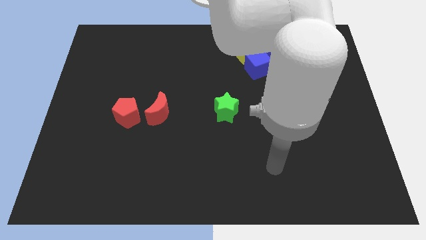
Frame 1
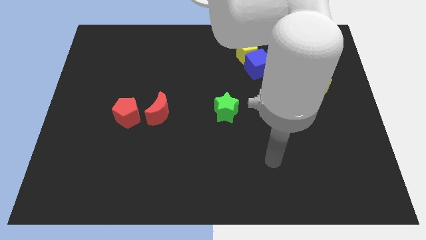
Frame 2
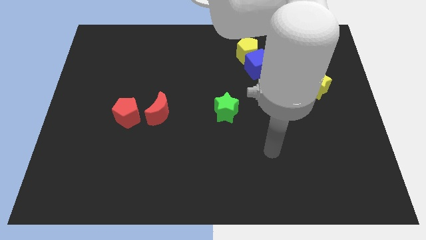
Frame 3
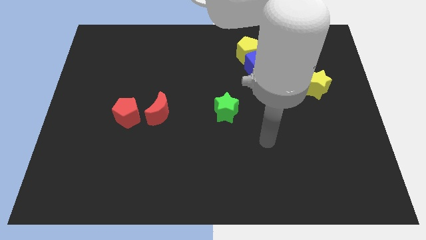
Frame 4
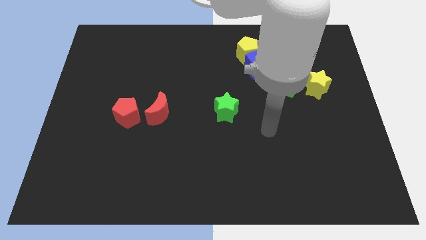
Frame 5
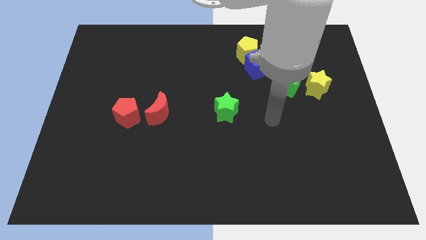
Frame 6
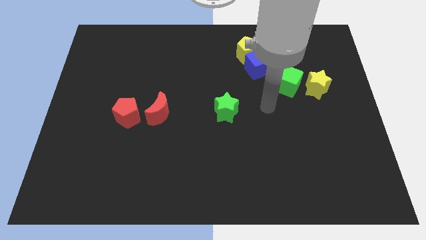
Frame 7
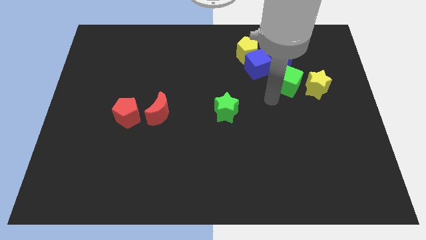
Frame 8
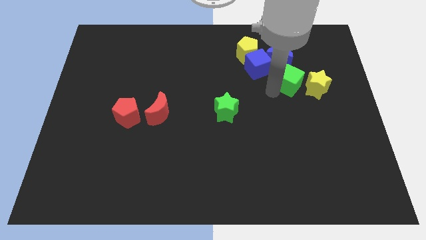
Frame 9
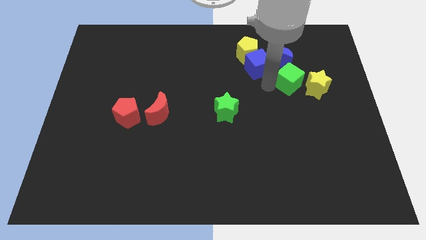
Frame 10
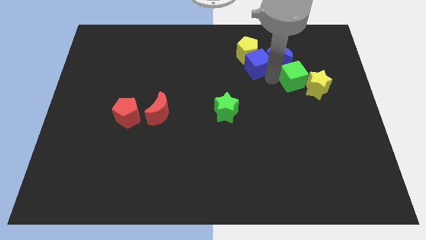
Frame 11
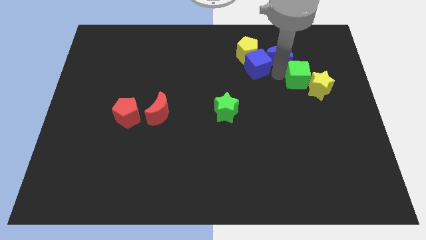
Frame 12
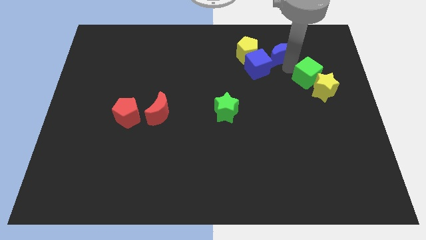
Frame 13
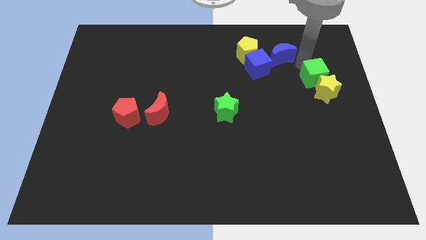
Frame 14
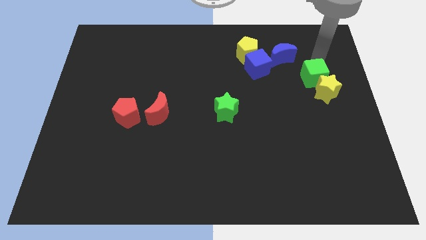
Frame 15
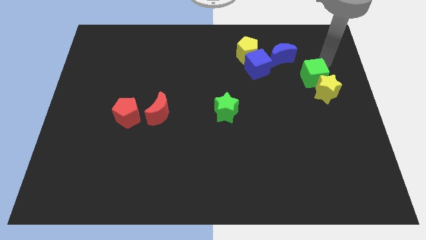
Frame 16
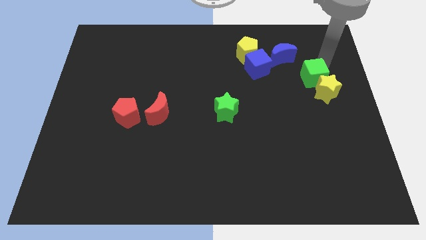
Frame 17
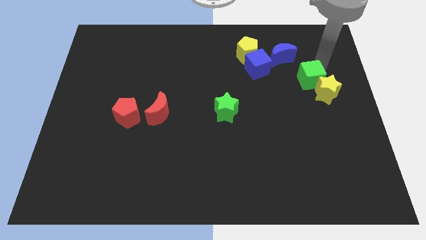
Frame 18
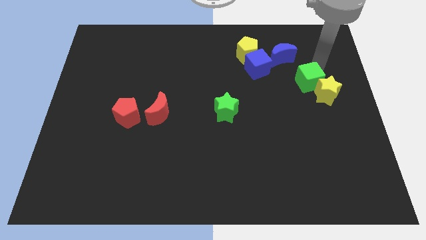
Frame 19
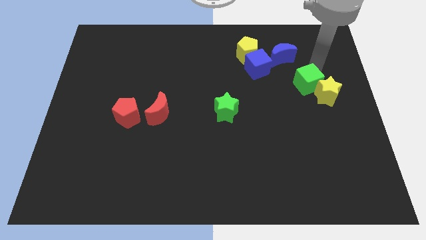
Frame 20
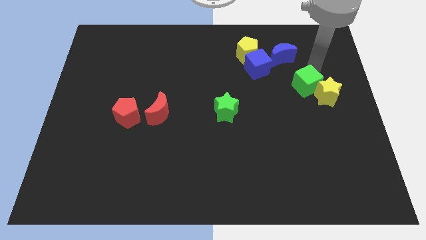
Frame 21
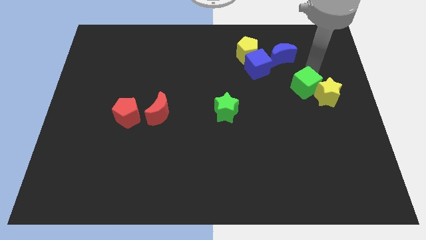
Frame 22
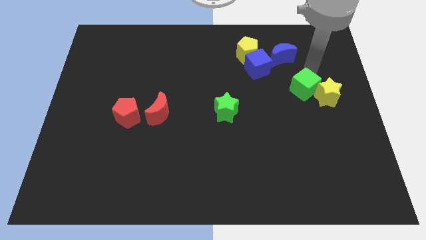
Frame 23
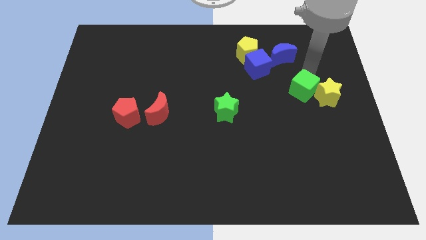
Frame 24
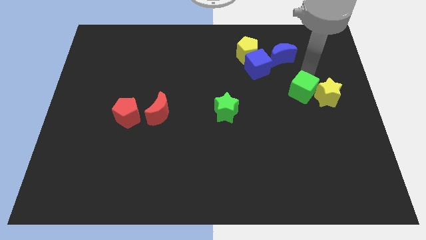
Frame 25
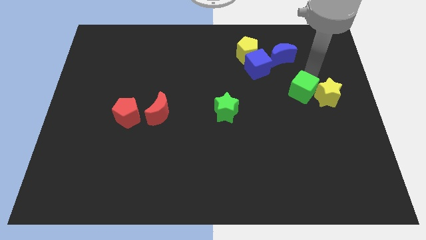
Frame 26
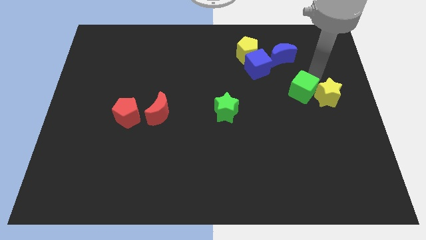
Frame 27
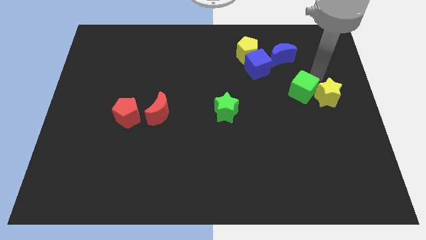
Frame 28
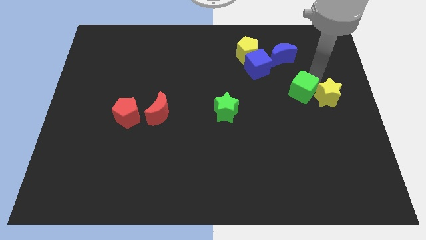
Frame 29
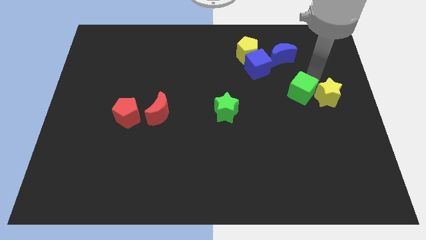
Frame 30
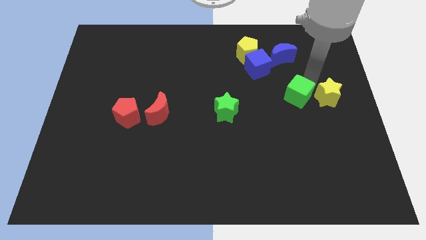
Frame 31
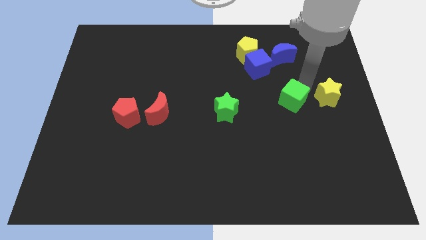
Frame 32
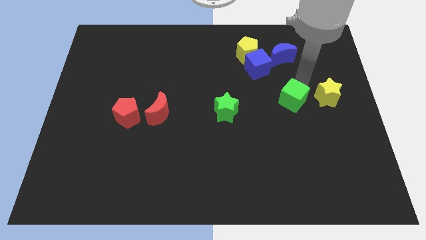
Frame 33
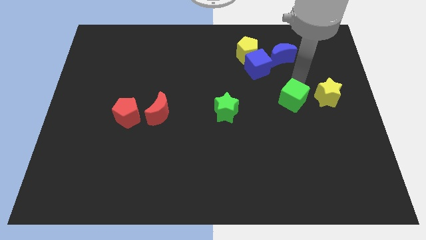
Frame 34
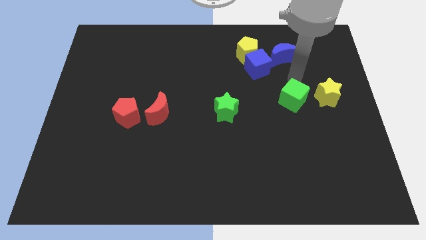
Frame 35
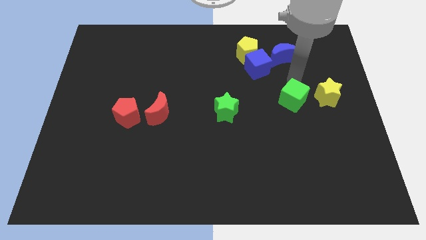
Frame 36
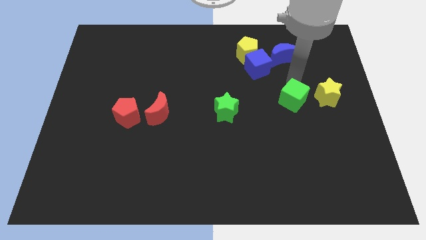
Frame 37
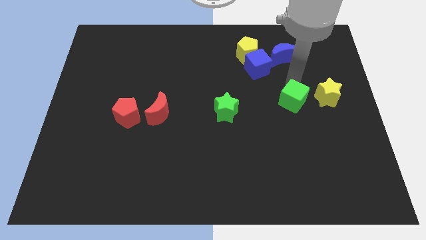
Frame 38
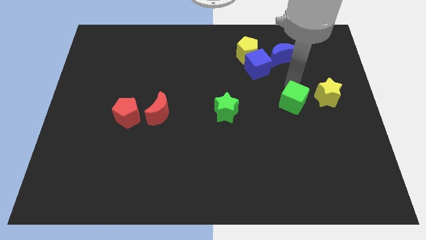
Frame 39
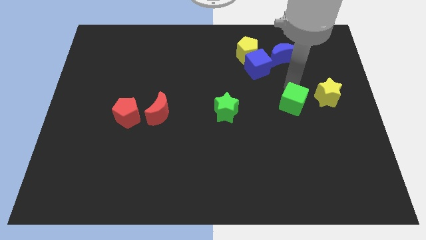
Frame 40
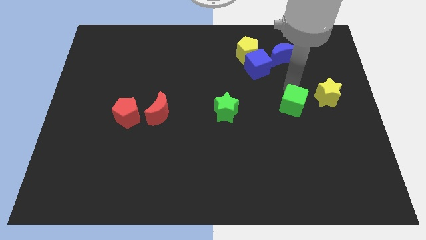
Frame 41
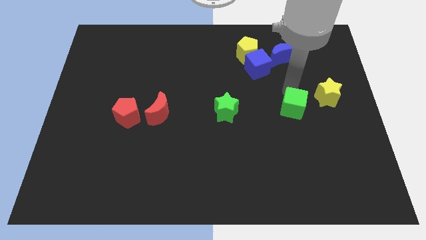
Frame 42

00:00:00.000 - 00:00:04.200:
slide the green cube a bit down

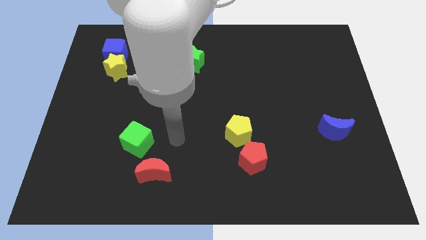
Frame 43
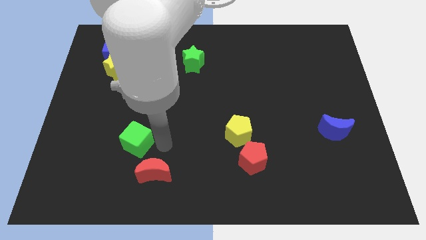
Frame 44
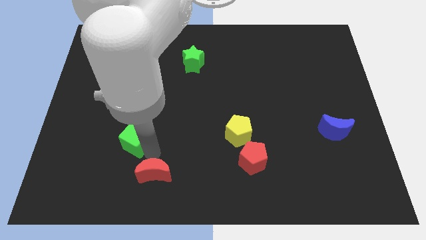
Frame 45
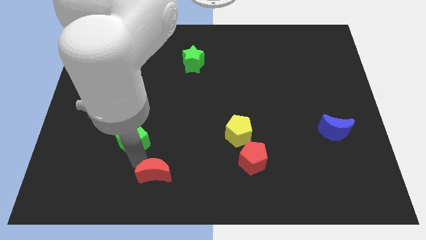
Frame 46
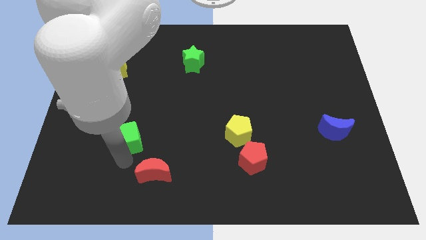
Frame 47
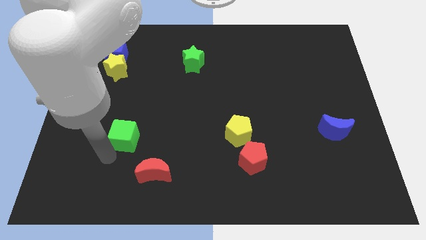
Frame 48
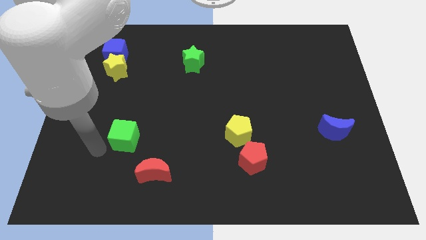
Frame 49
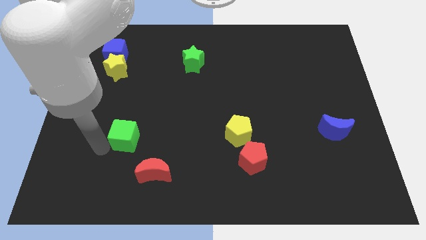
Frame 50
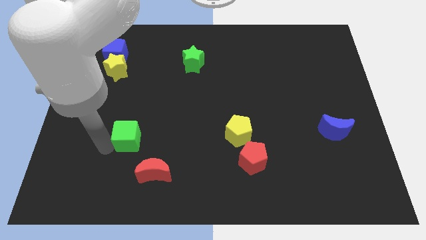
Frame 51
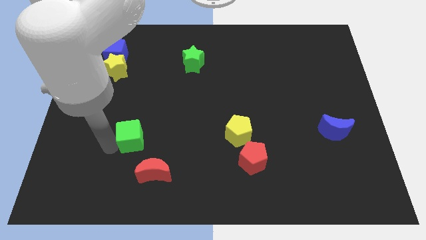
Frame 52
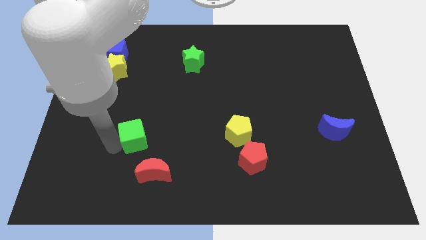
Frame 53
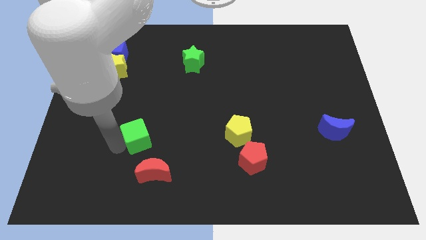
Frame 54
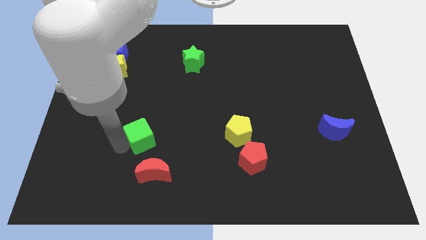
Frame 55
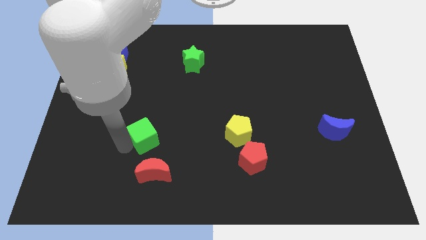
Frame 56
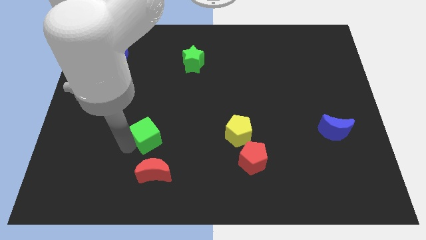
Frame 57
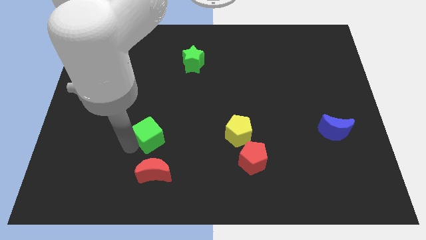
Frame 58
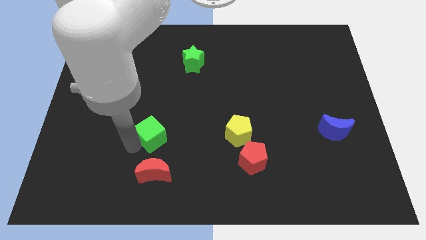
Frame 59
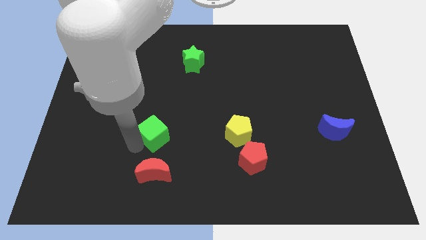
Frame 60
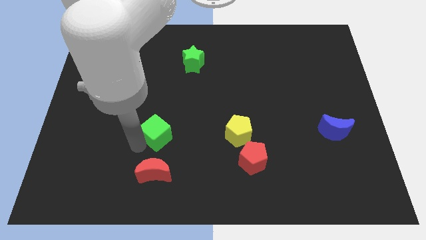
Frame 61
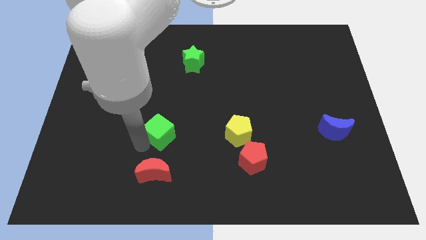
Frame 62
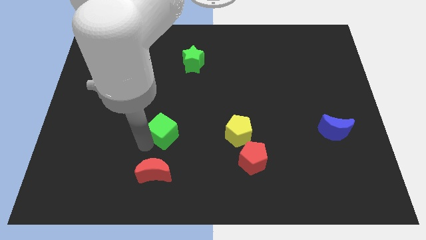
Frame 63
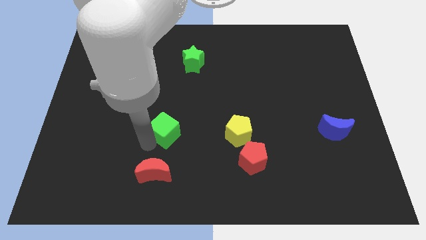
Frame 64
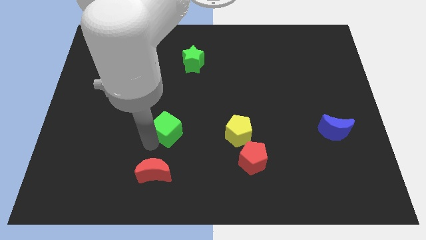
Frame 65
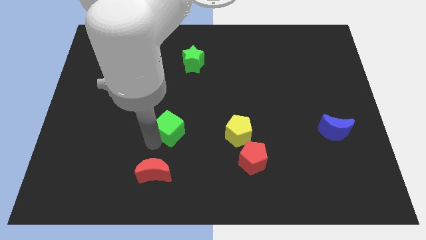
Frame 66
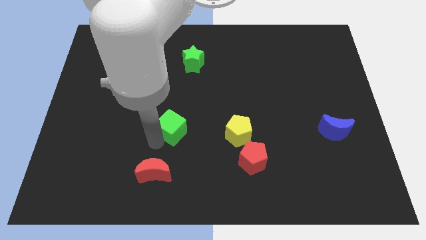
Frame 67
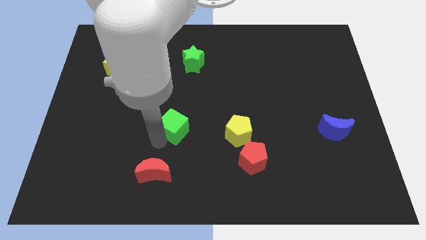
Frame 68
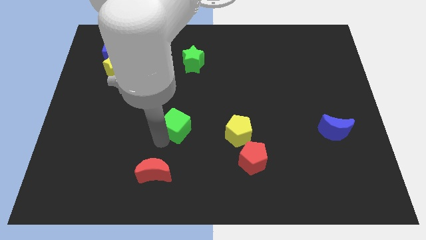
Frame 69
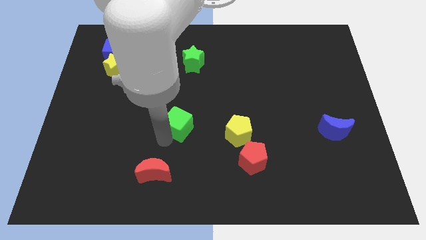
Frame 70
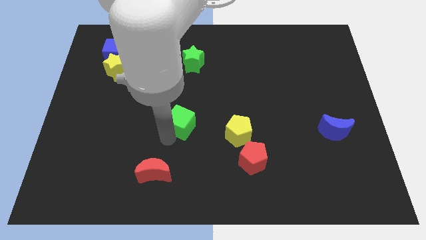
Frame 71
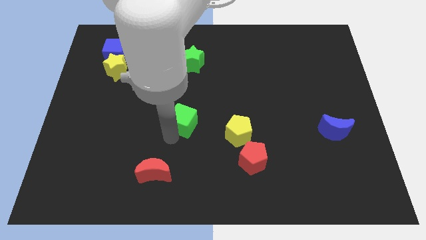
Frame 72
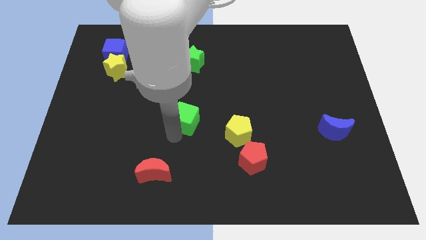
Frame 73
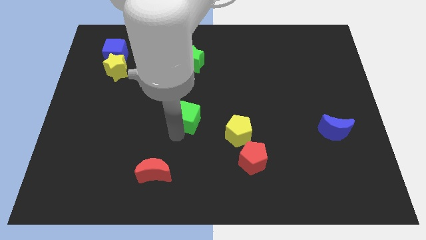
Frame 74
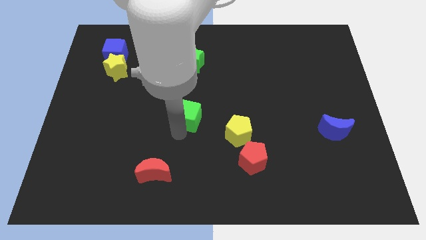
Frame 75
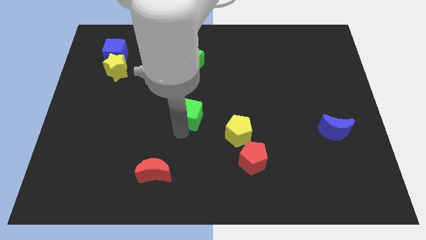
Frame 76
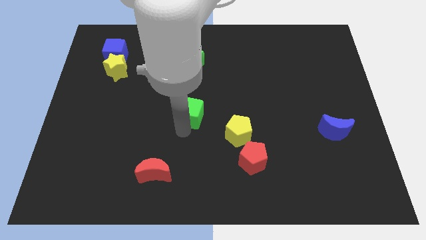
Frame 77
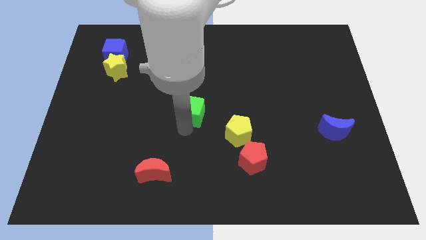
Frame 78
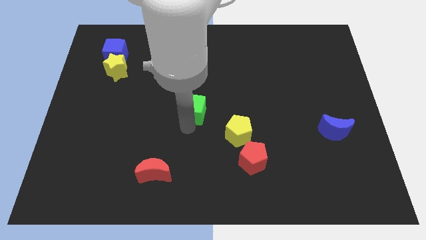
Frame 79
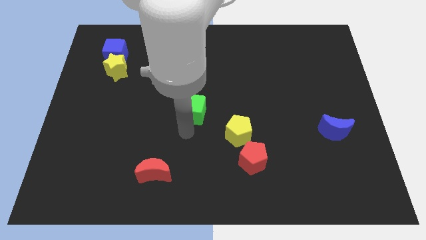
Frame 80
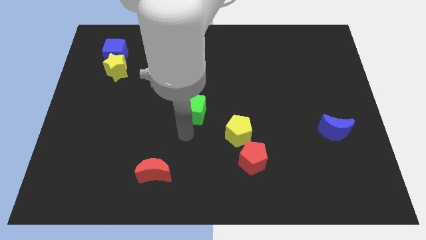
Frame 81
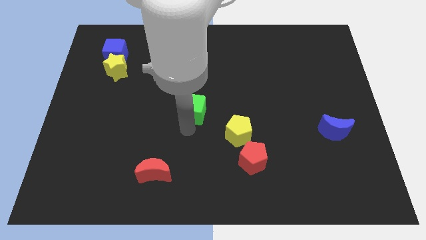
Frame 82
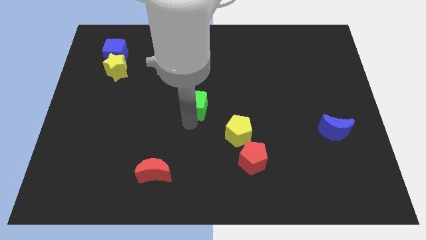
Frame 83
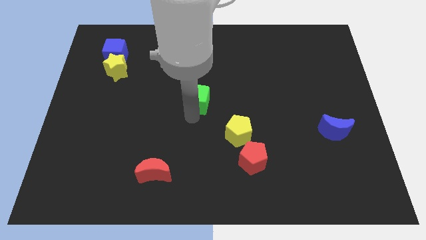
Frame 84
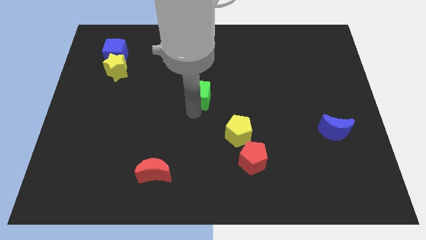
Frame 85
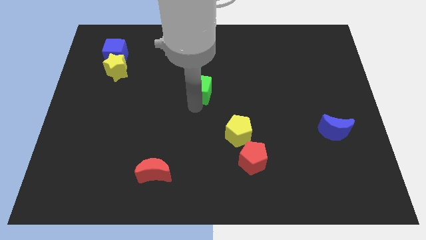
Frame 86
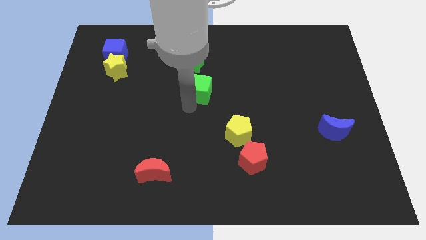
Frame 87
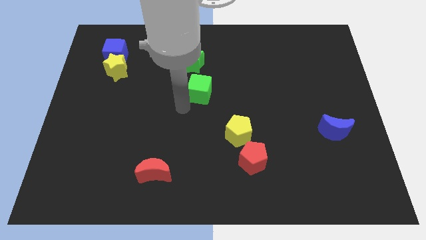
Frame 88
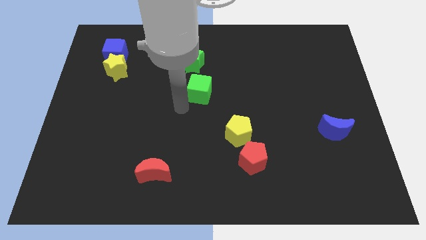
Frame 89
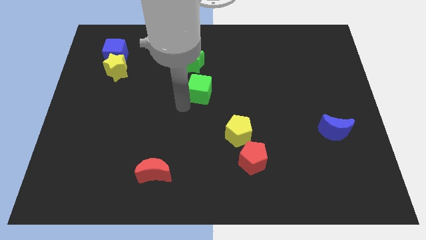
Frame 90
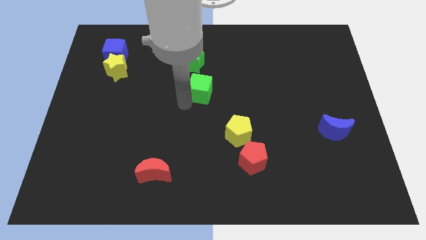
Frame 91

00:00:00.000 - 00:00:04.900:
slide the green cube up and to the right diagonally
